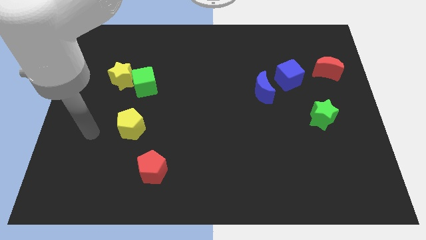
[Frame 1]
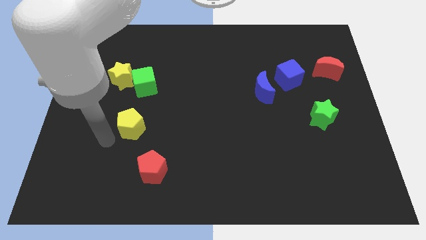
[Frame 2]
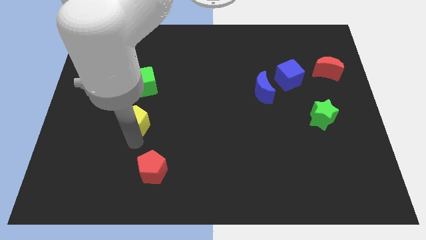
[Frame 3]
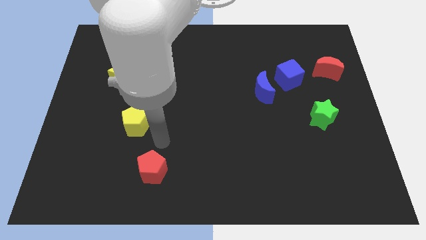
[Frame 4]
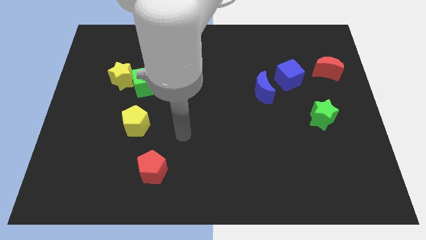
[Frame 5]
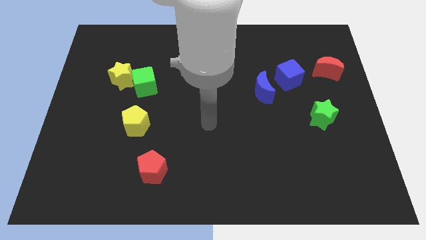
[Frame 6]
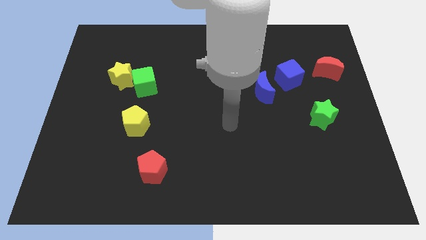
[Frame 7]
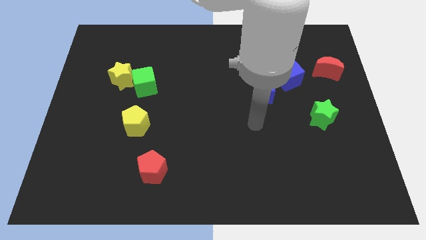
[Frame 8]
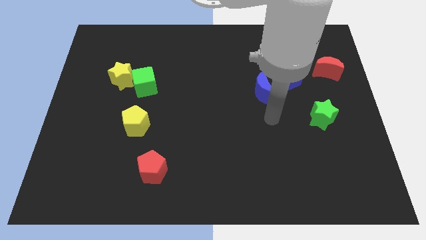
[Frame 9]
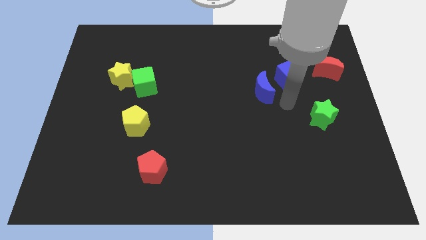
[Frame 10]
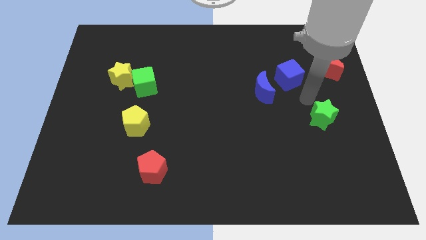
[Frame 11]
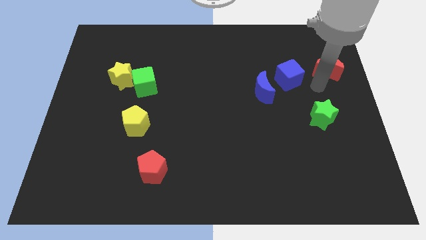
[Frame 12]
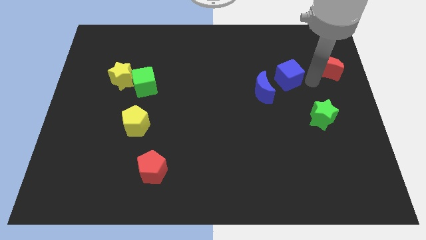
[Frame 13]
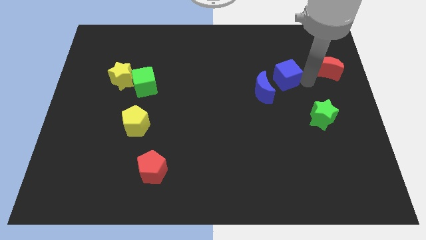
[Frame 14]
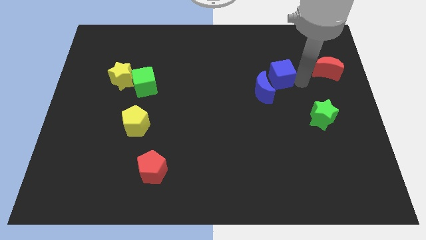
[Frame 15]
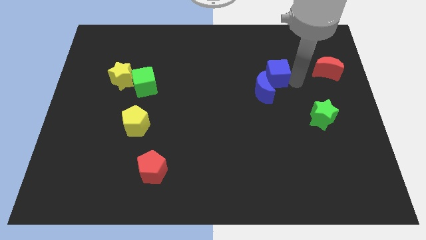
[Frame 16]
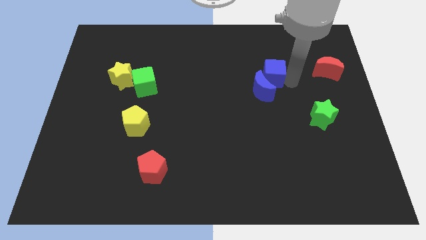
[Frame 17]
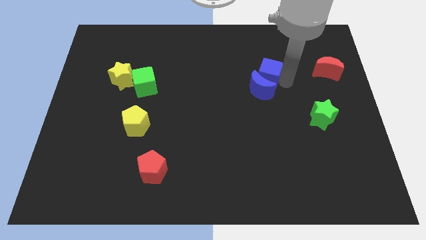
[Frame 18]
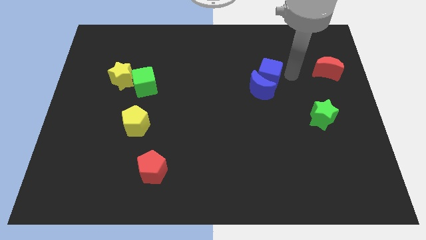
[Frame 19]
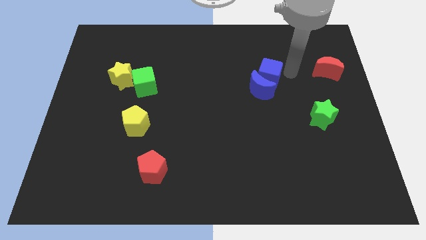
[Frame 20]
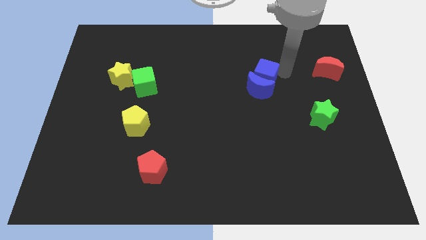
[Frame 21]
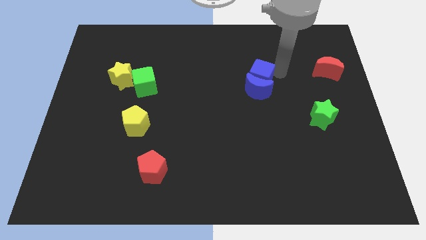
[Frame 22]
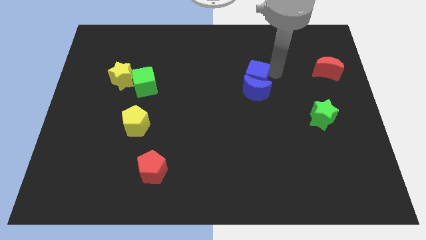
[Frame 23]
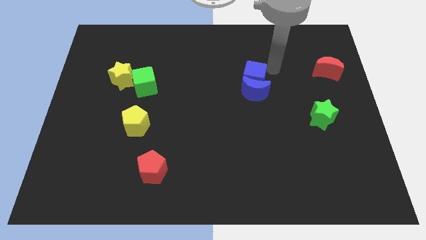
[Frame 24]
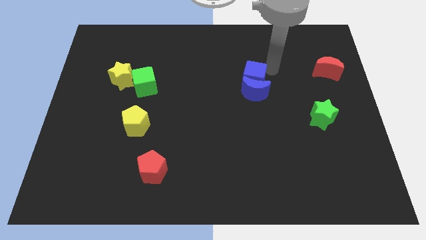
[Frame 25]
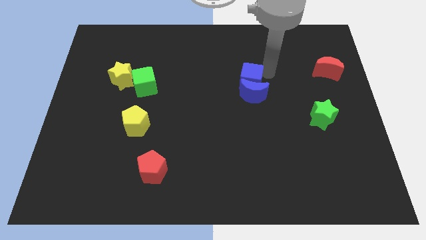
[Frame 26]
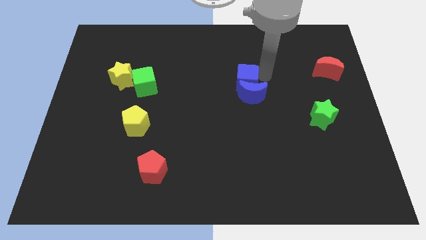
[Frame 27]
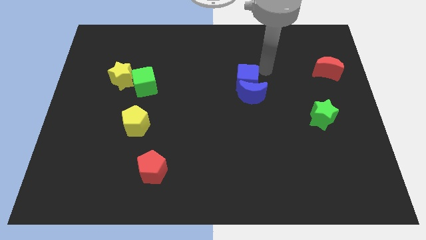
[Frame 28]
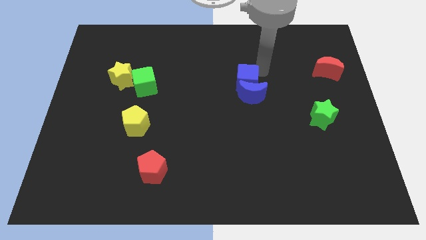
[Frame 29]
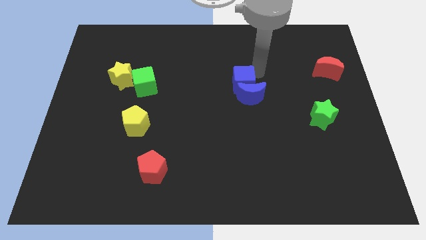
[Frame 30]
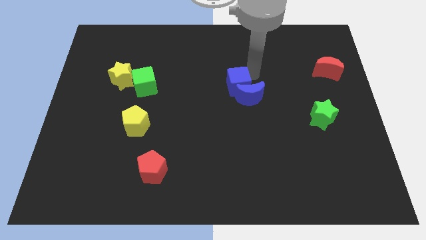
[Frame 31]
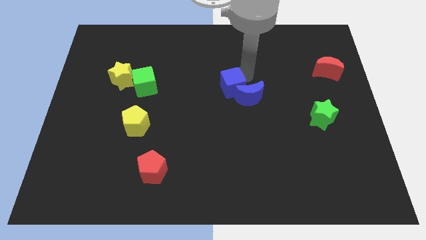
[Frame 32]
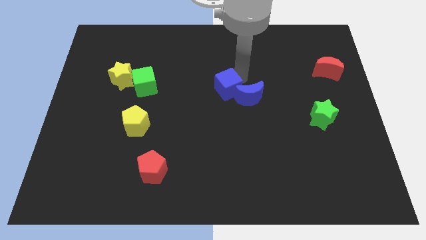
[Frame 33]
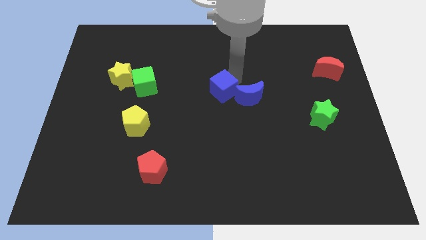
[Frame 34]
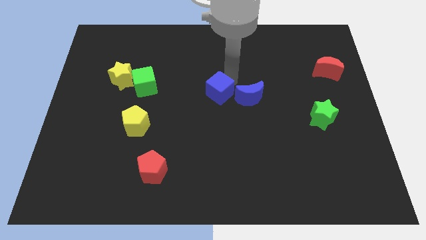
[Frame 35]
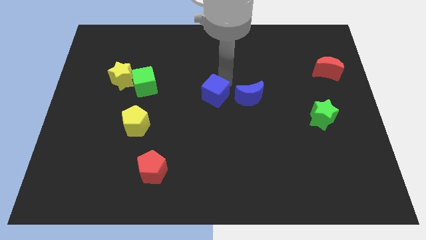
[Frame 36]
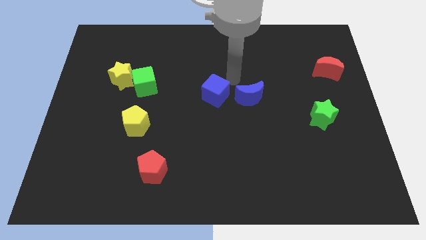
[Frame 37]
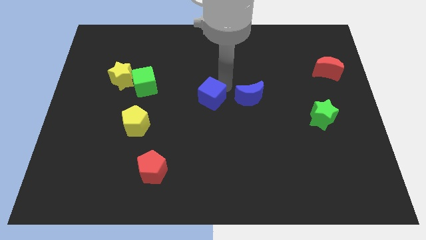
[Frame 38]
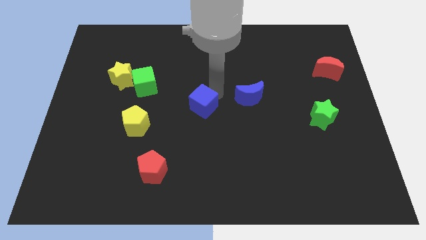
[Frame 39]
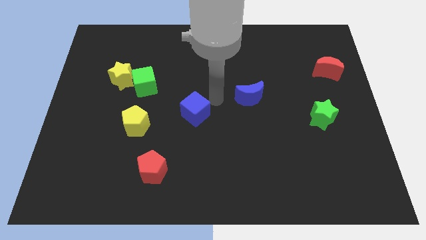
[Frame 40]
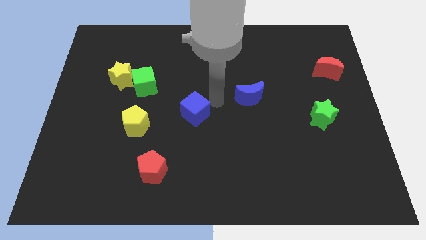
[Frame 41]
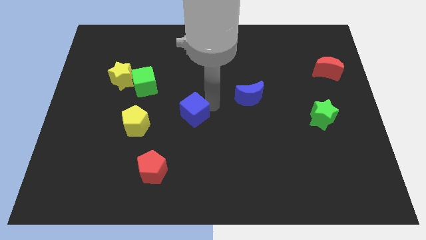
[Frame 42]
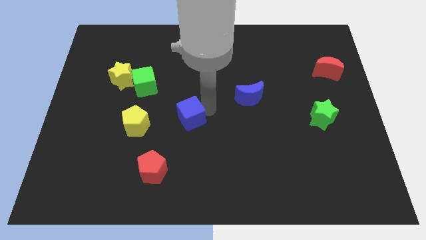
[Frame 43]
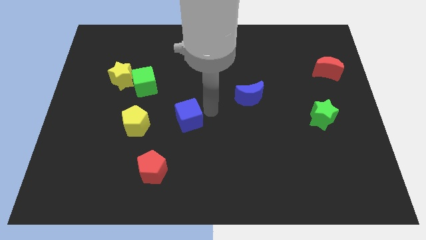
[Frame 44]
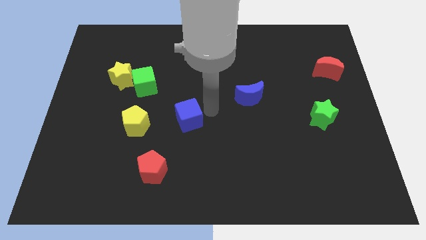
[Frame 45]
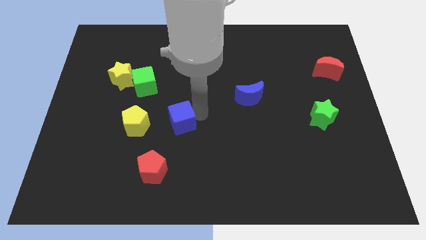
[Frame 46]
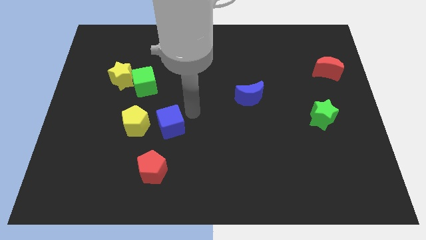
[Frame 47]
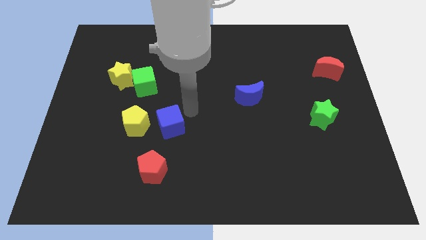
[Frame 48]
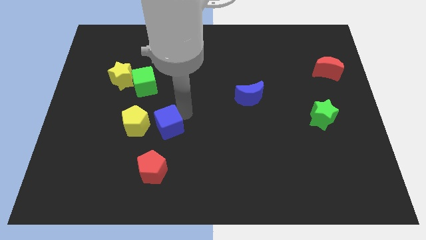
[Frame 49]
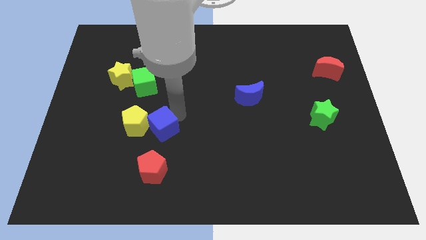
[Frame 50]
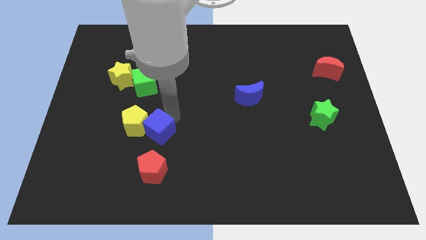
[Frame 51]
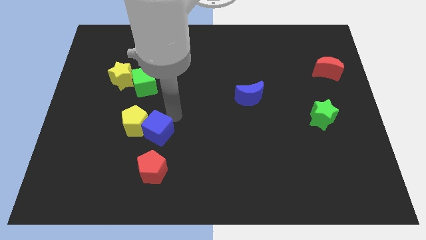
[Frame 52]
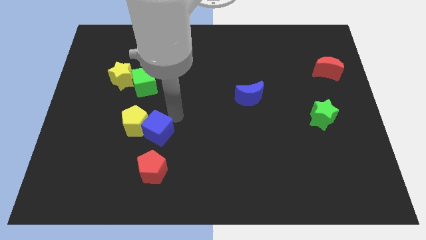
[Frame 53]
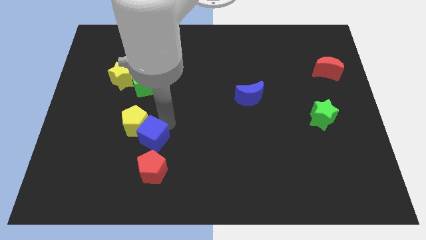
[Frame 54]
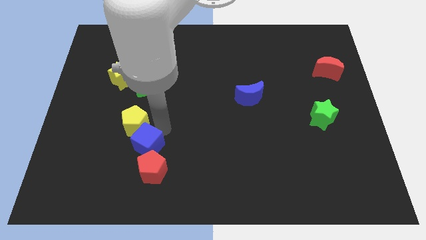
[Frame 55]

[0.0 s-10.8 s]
put the blue cube to the top left side of the red pentagon

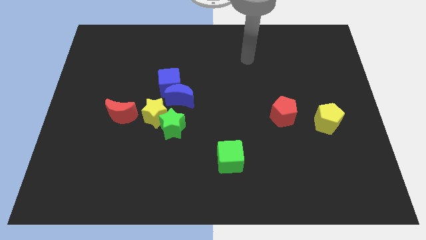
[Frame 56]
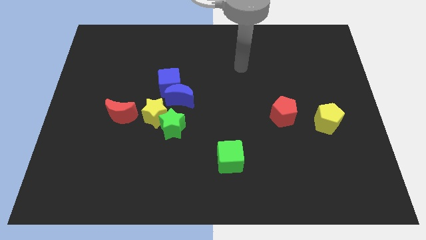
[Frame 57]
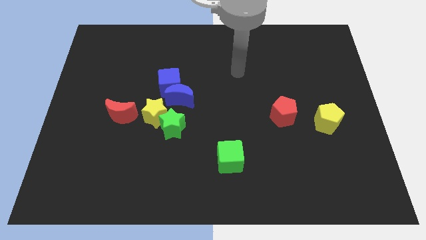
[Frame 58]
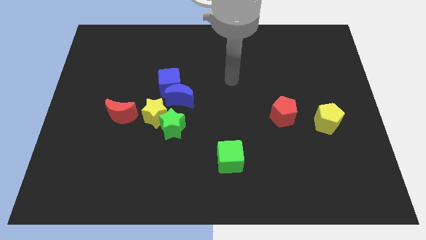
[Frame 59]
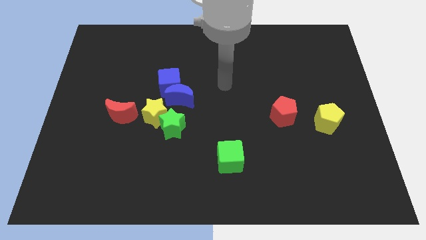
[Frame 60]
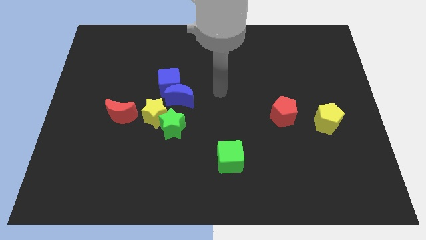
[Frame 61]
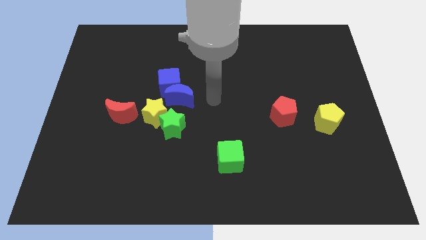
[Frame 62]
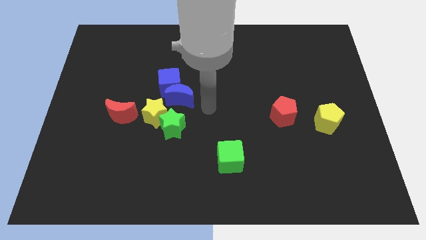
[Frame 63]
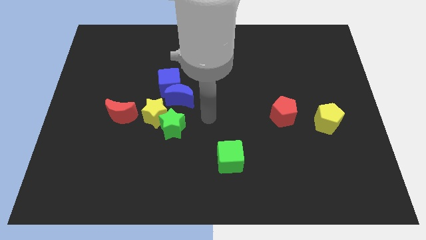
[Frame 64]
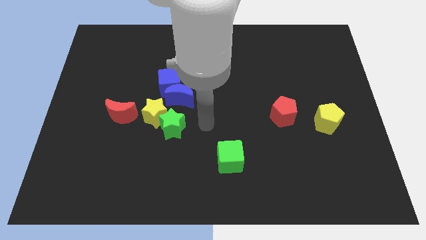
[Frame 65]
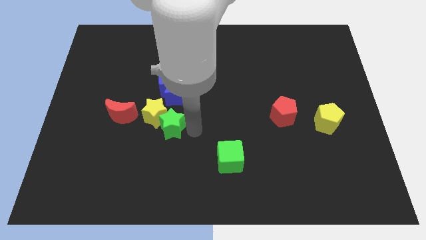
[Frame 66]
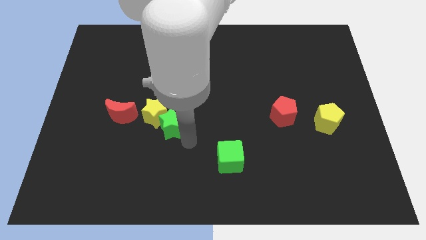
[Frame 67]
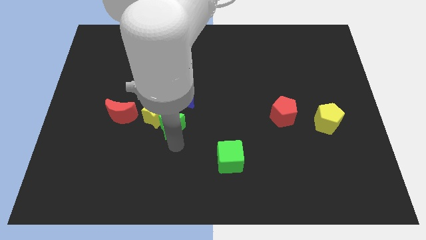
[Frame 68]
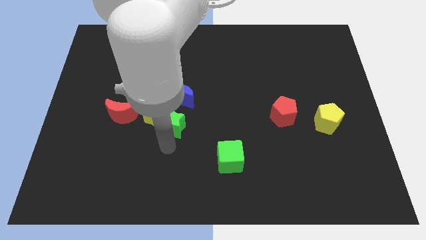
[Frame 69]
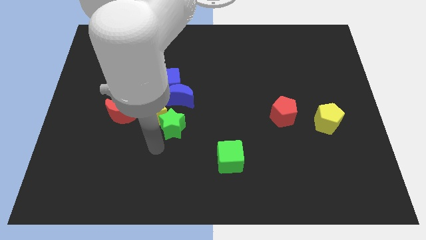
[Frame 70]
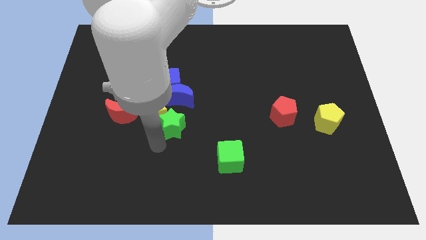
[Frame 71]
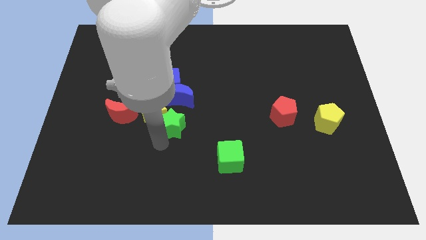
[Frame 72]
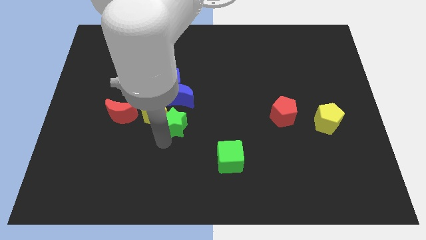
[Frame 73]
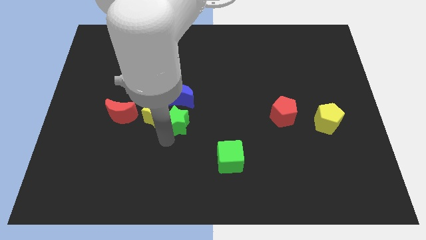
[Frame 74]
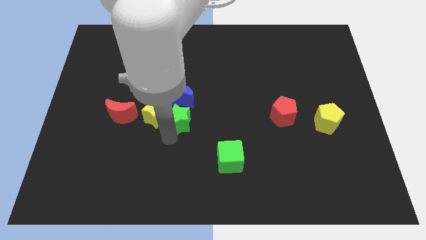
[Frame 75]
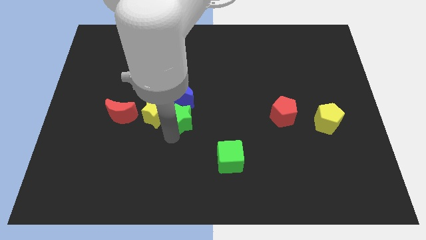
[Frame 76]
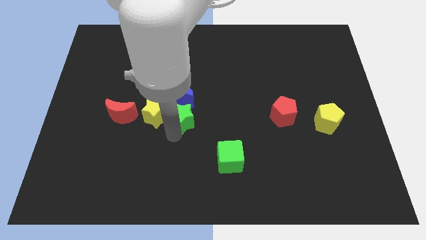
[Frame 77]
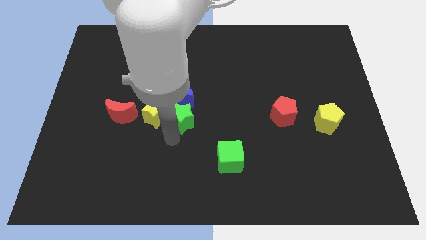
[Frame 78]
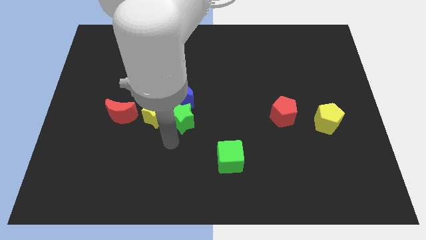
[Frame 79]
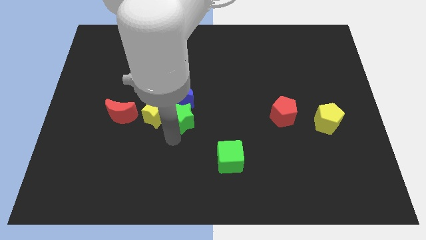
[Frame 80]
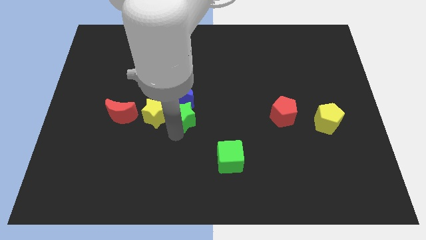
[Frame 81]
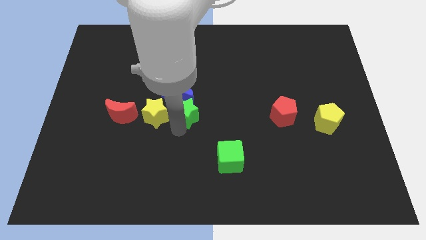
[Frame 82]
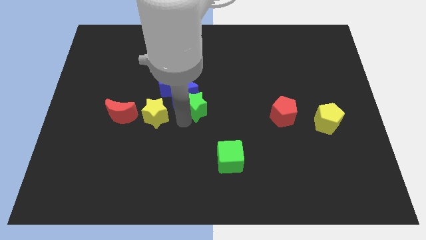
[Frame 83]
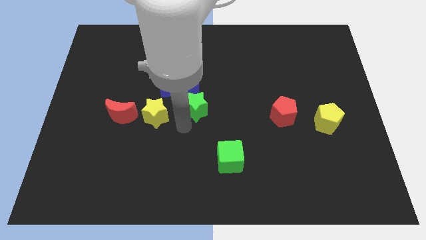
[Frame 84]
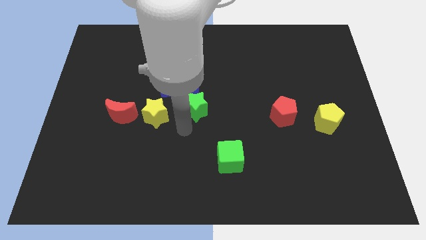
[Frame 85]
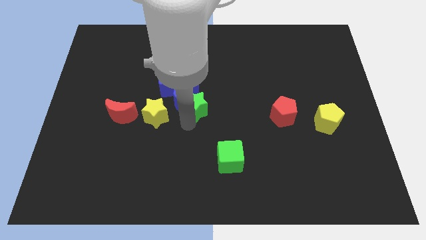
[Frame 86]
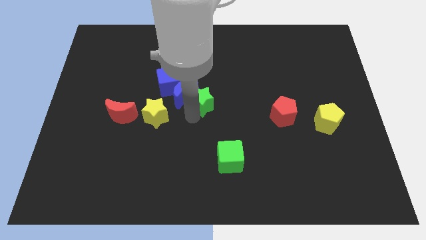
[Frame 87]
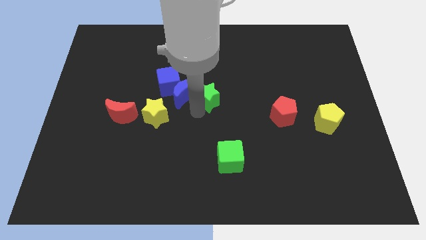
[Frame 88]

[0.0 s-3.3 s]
push the green star to the right side of the blue cube
